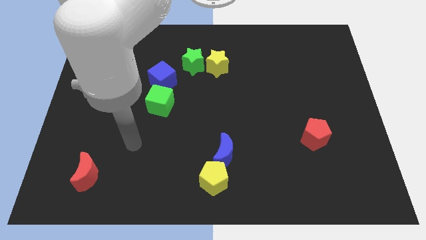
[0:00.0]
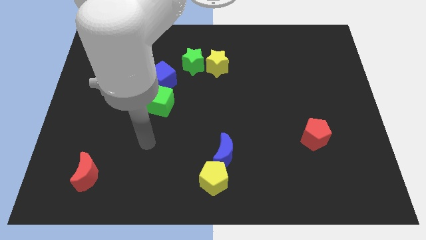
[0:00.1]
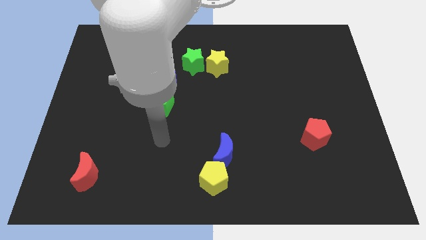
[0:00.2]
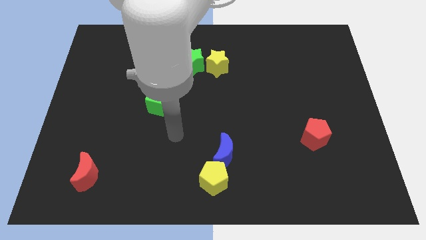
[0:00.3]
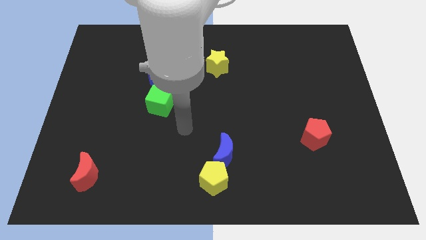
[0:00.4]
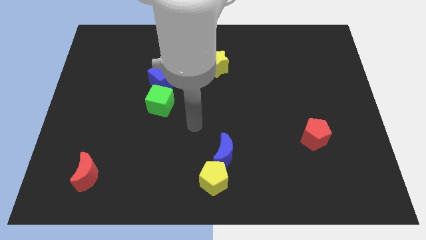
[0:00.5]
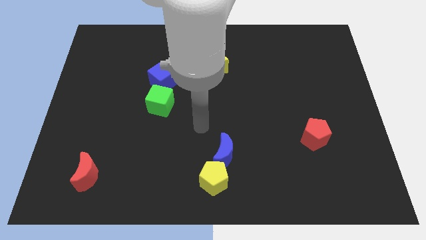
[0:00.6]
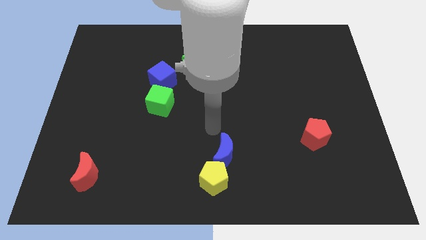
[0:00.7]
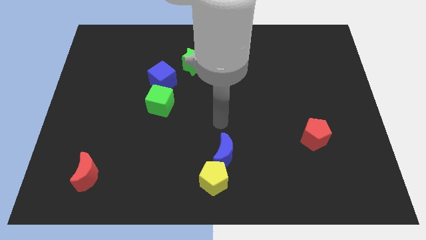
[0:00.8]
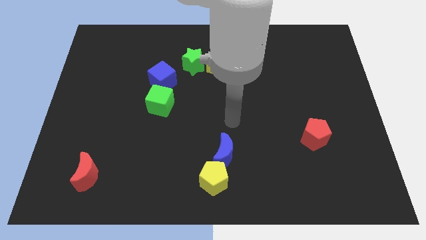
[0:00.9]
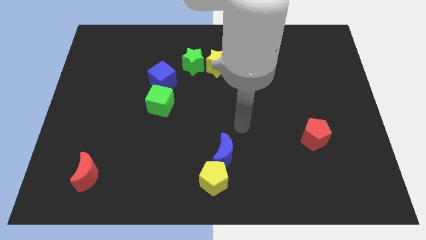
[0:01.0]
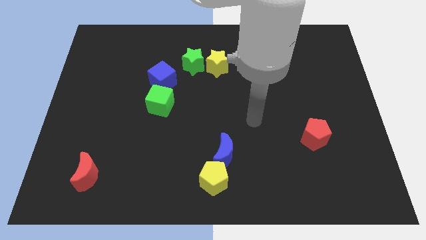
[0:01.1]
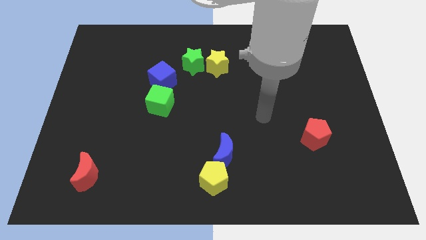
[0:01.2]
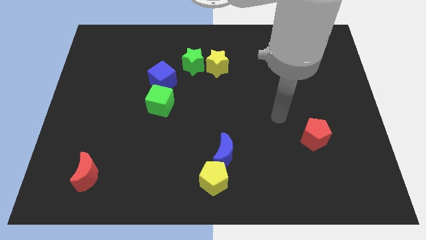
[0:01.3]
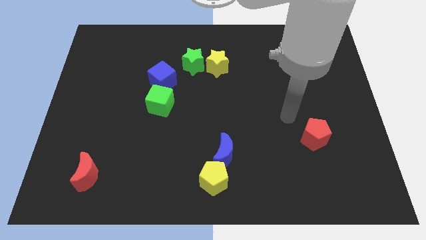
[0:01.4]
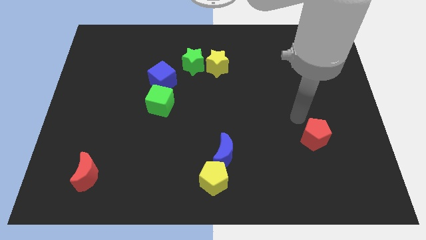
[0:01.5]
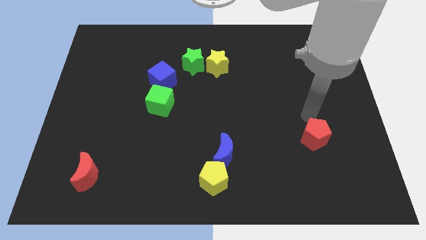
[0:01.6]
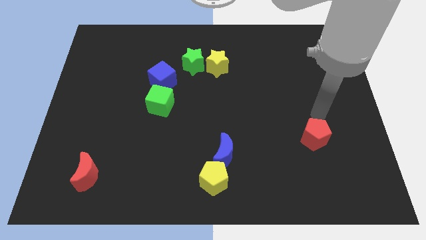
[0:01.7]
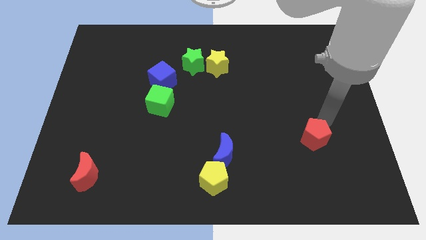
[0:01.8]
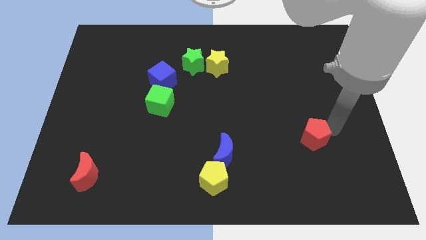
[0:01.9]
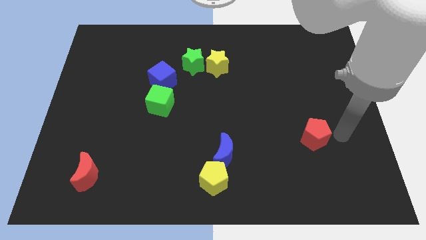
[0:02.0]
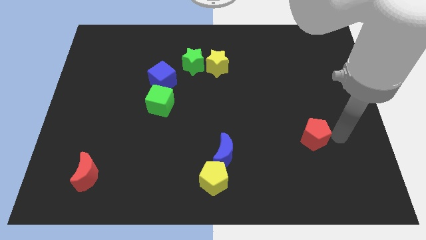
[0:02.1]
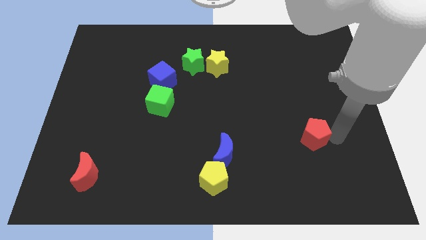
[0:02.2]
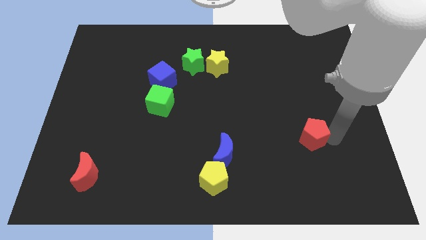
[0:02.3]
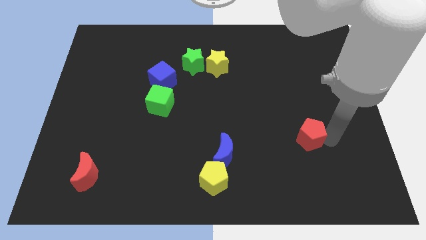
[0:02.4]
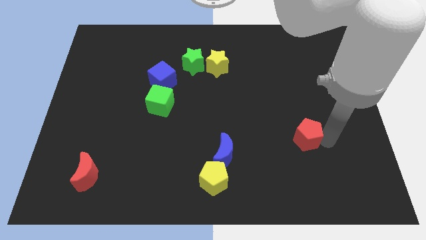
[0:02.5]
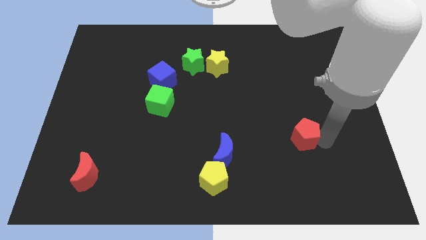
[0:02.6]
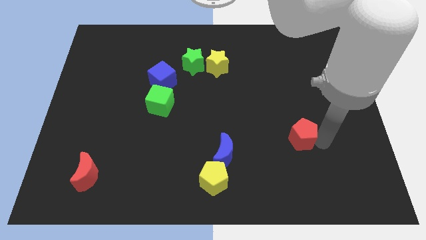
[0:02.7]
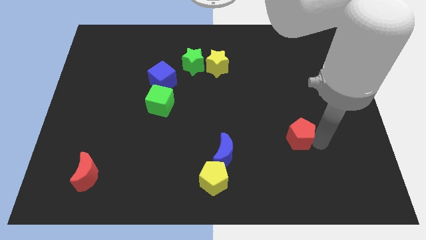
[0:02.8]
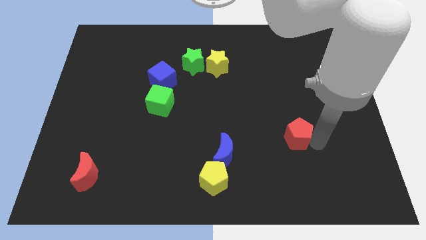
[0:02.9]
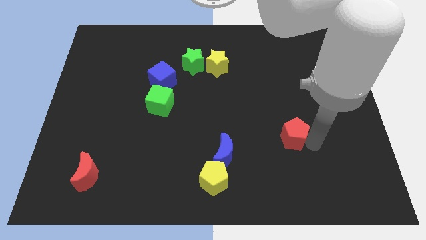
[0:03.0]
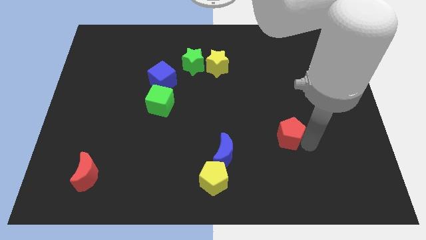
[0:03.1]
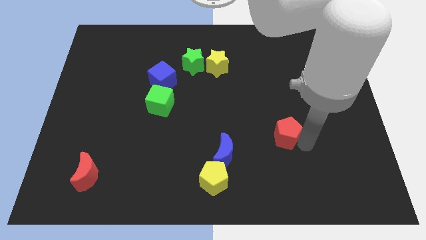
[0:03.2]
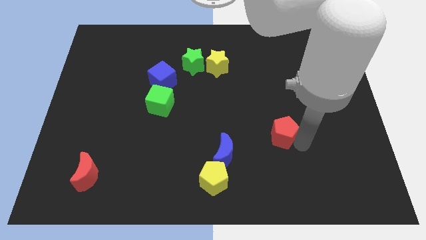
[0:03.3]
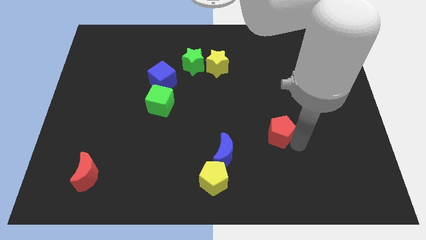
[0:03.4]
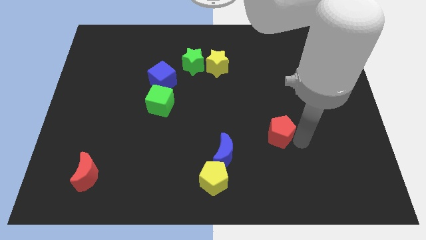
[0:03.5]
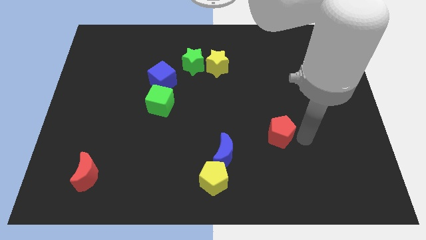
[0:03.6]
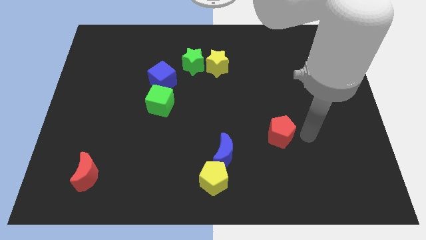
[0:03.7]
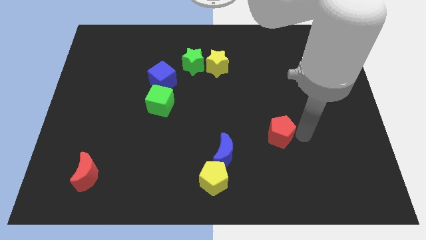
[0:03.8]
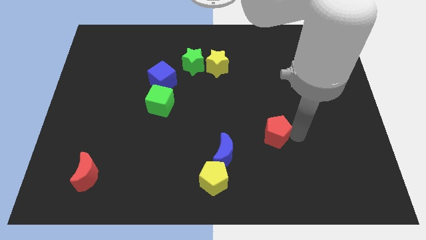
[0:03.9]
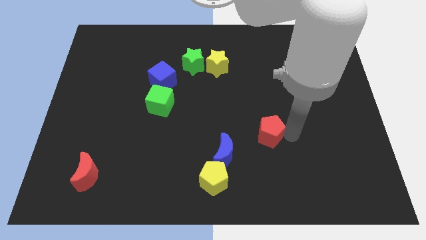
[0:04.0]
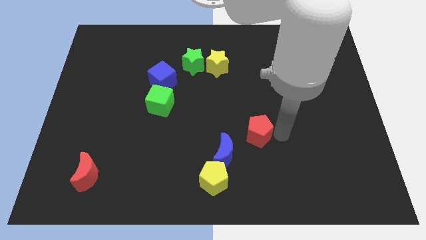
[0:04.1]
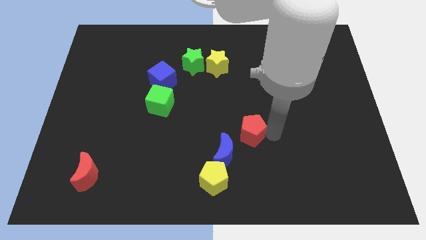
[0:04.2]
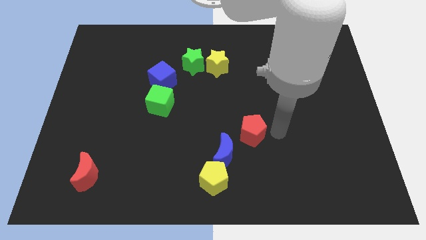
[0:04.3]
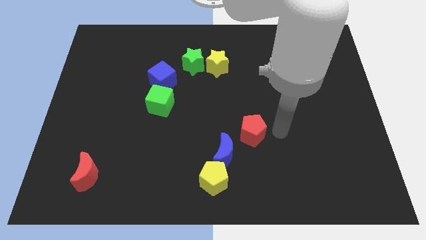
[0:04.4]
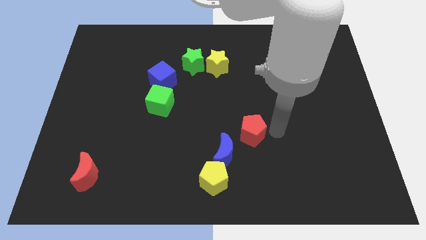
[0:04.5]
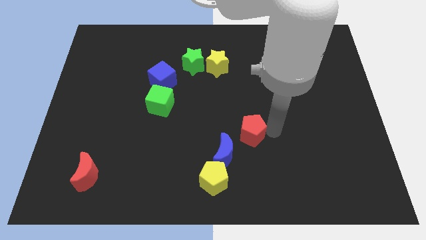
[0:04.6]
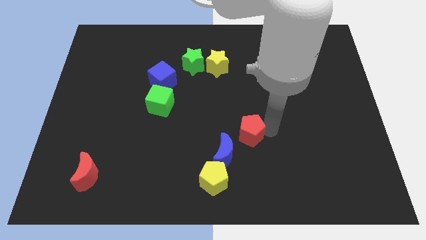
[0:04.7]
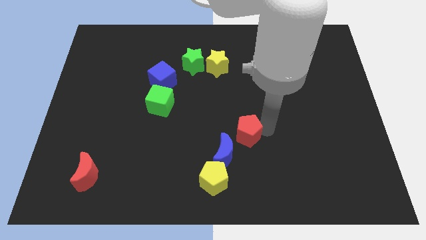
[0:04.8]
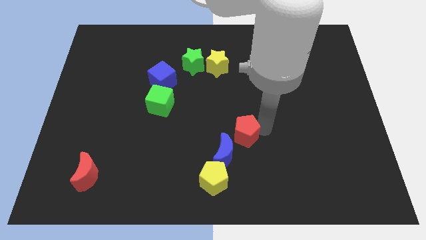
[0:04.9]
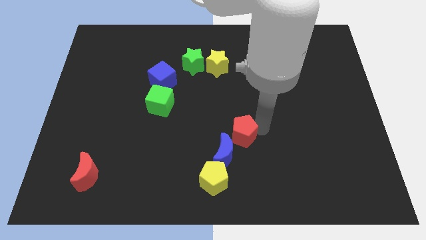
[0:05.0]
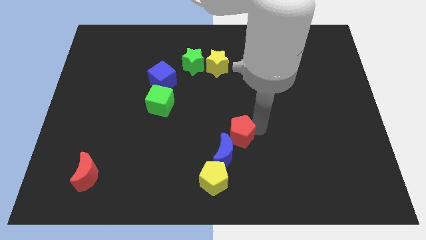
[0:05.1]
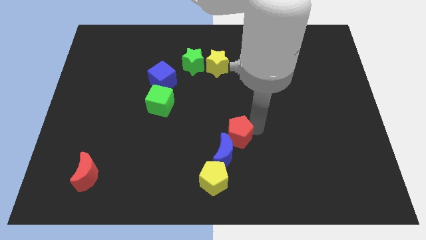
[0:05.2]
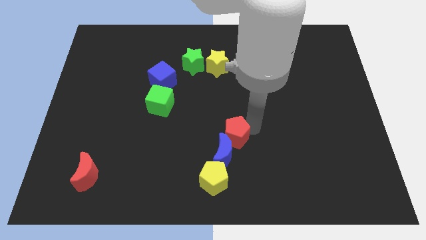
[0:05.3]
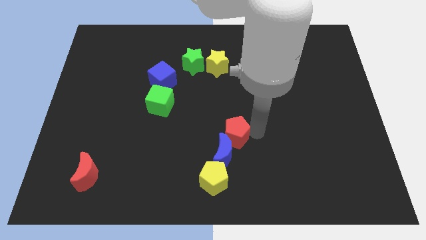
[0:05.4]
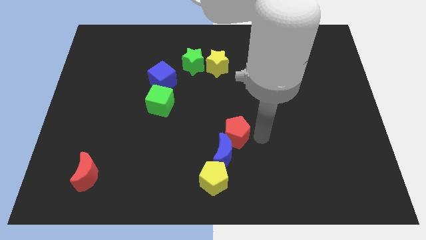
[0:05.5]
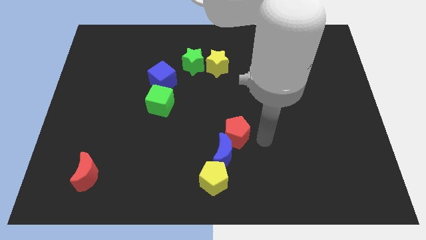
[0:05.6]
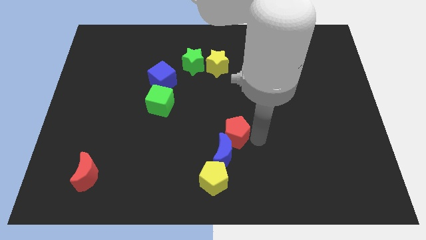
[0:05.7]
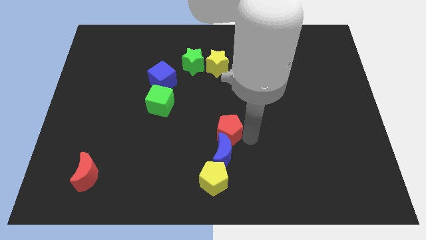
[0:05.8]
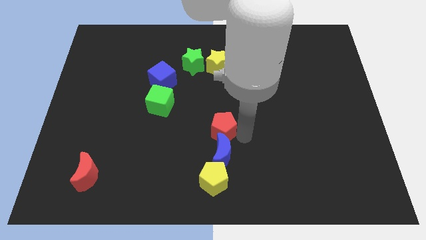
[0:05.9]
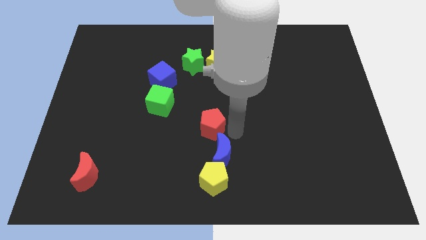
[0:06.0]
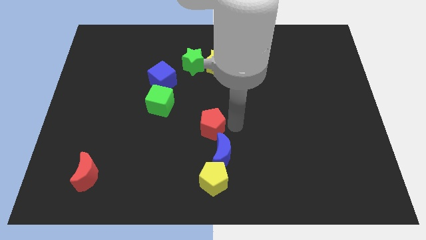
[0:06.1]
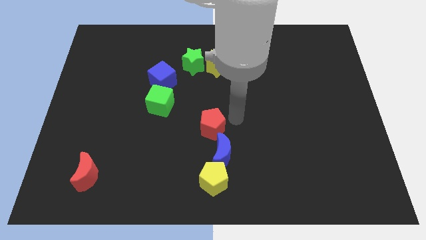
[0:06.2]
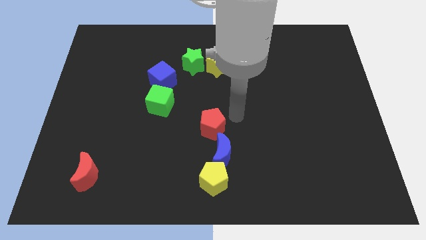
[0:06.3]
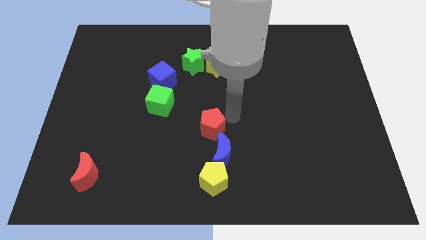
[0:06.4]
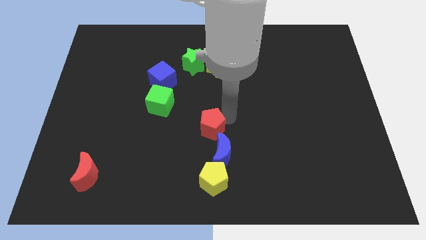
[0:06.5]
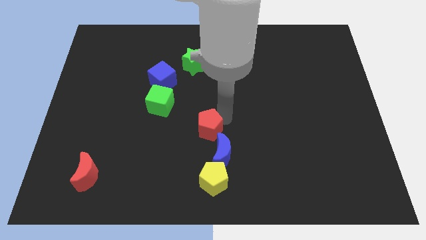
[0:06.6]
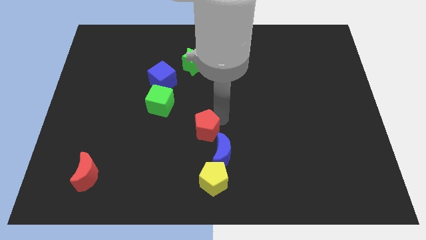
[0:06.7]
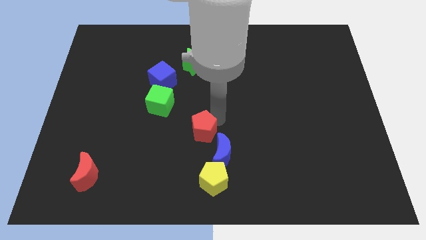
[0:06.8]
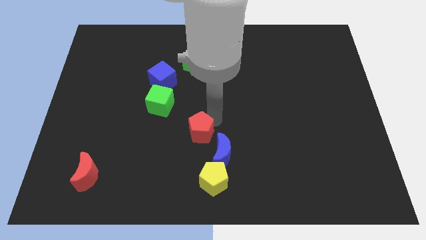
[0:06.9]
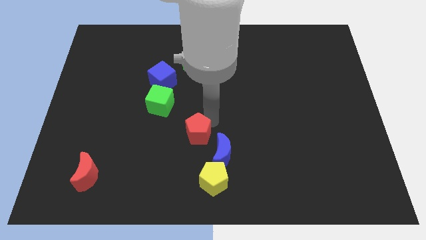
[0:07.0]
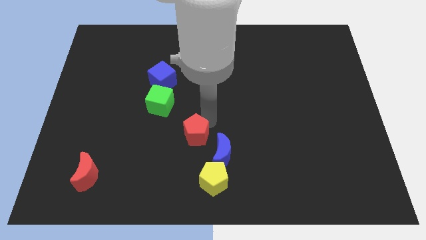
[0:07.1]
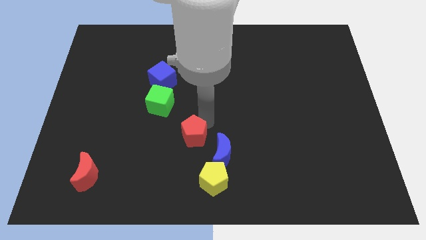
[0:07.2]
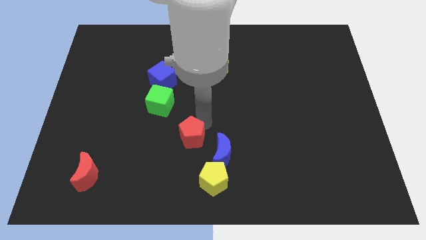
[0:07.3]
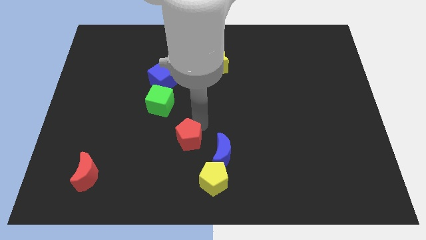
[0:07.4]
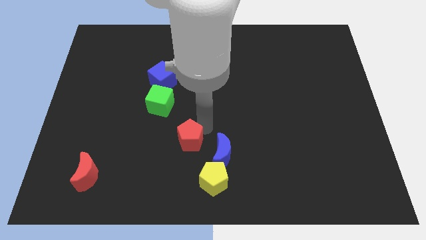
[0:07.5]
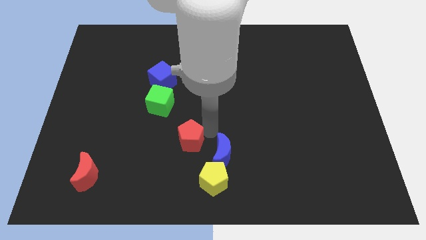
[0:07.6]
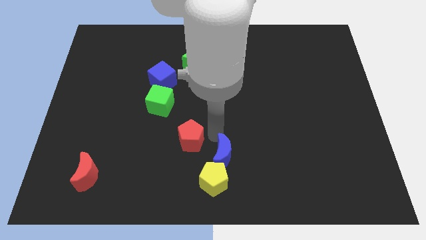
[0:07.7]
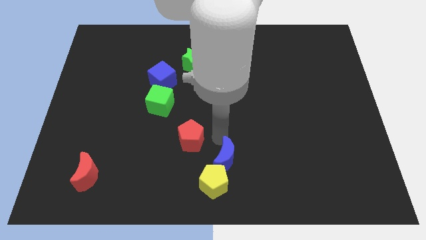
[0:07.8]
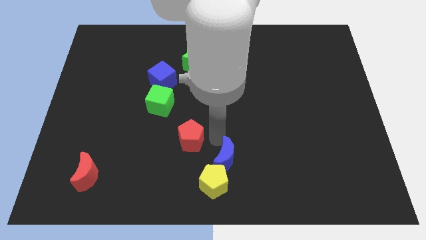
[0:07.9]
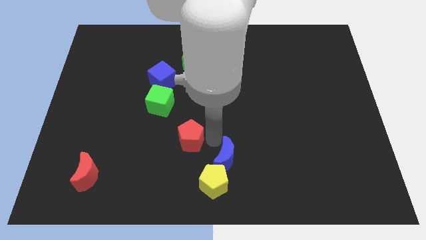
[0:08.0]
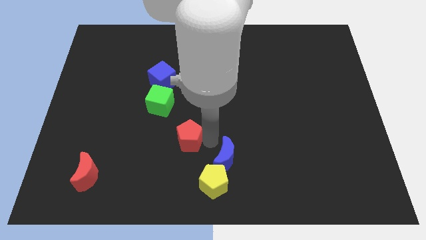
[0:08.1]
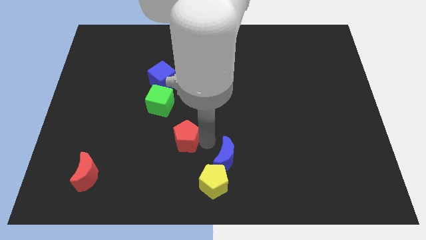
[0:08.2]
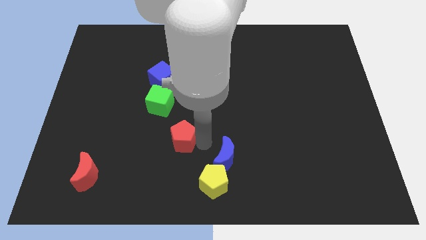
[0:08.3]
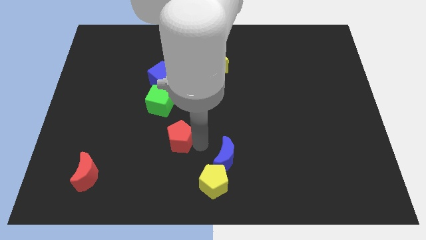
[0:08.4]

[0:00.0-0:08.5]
push the red pentagon to the bottom of the green cube
